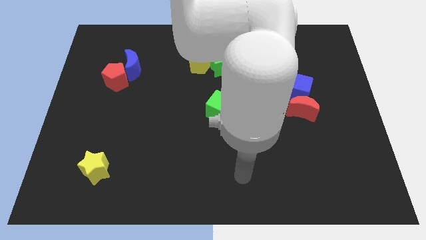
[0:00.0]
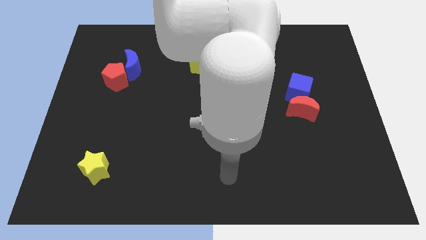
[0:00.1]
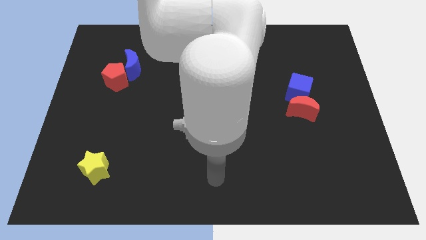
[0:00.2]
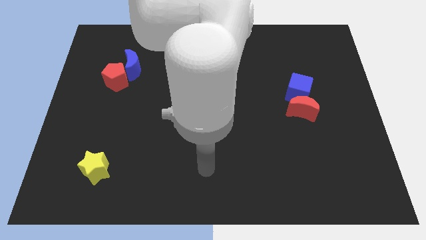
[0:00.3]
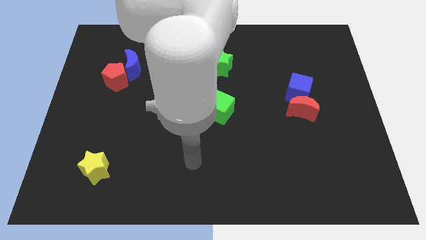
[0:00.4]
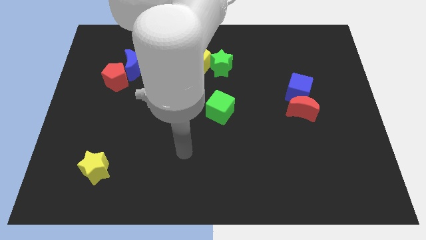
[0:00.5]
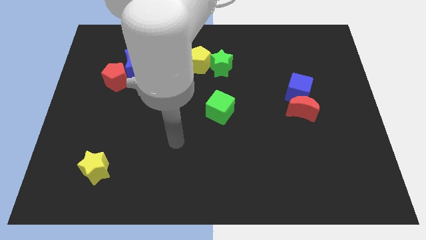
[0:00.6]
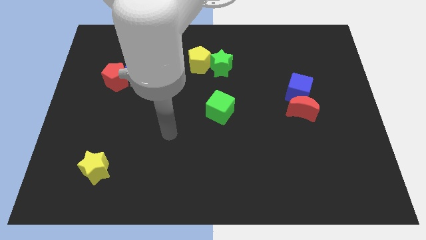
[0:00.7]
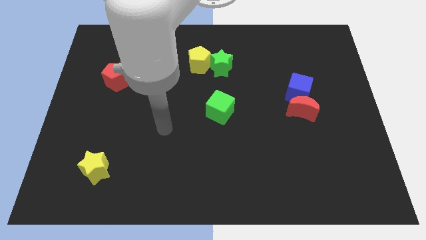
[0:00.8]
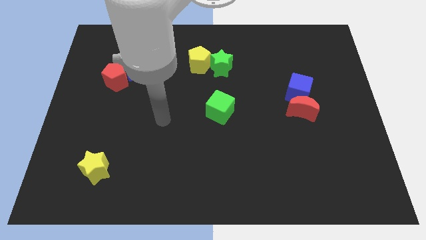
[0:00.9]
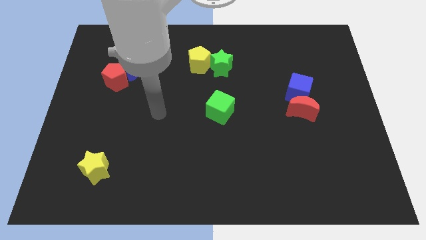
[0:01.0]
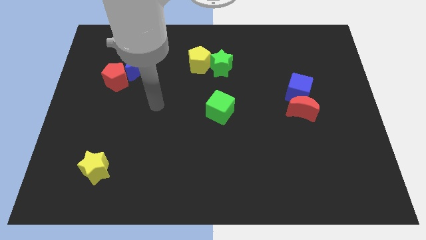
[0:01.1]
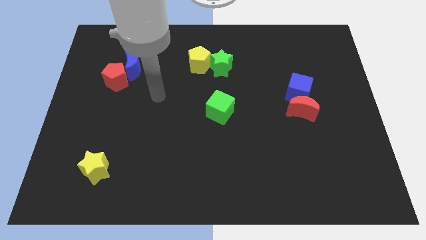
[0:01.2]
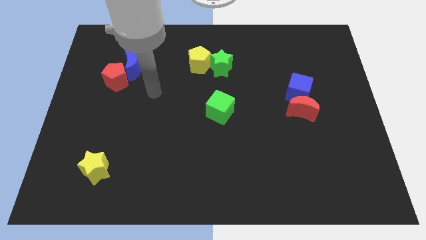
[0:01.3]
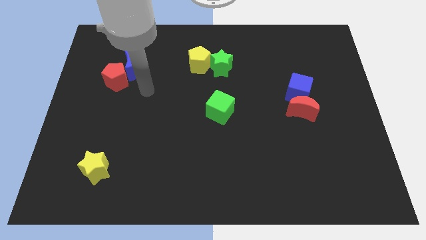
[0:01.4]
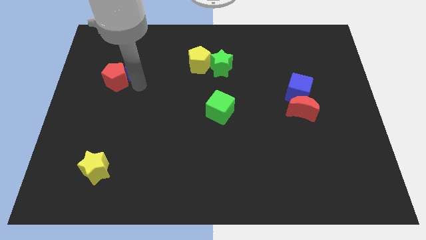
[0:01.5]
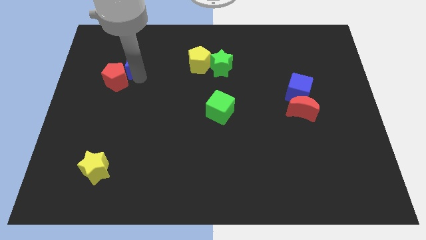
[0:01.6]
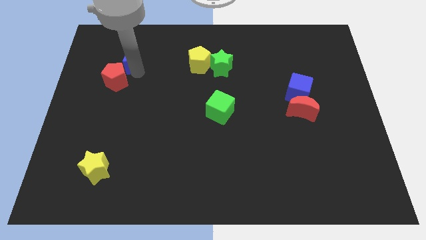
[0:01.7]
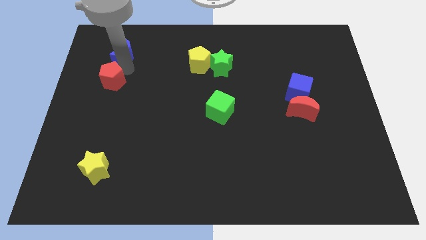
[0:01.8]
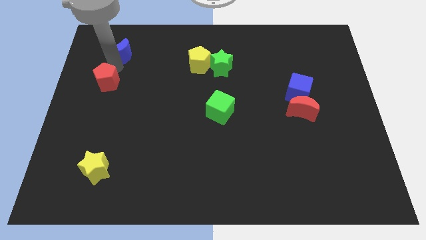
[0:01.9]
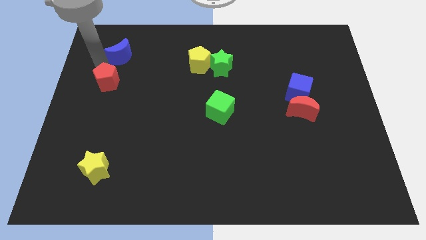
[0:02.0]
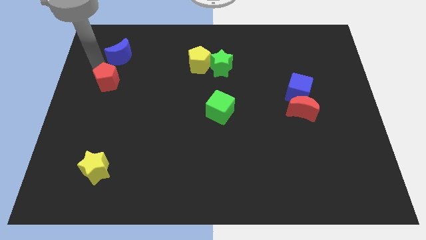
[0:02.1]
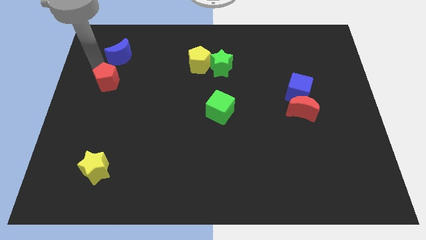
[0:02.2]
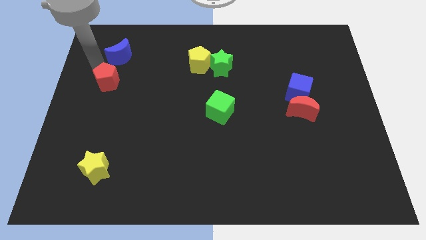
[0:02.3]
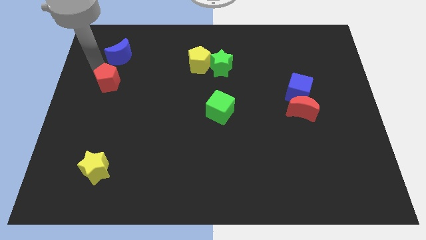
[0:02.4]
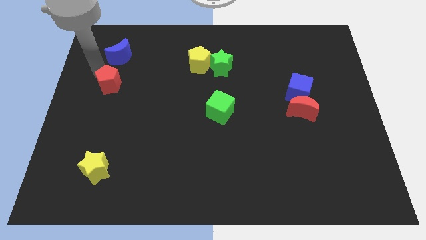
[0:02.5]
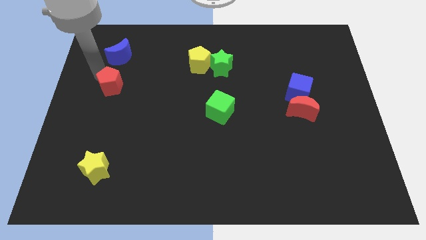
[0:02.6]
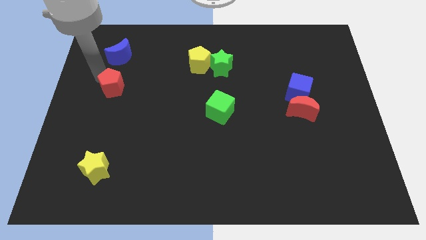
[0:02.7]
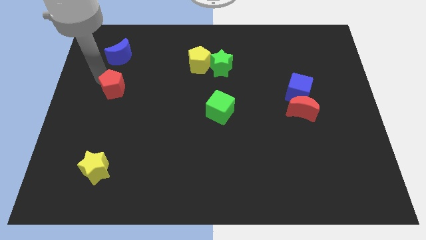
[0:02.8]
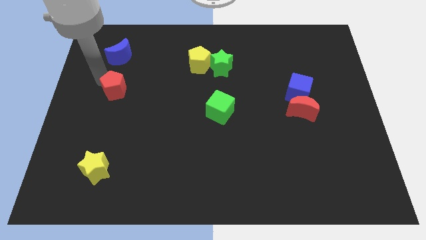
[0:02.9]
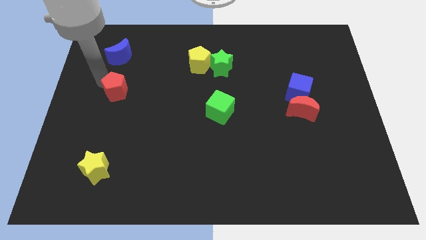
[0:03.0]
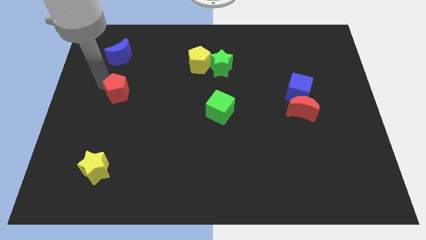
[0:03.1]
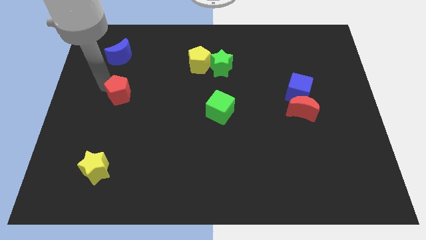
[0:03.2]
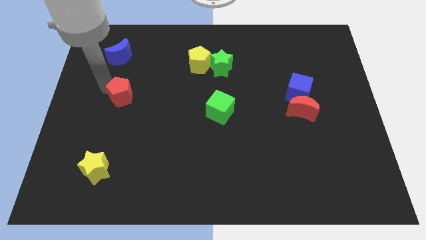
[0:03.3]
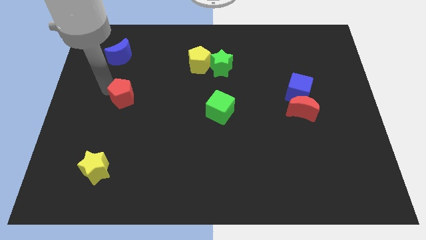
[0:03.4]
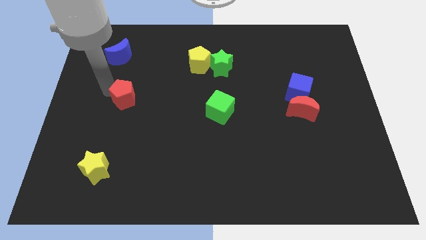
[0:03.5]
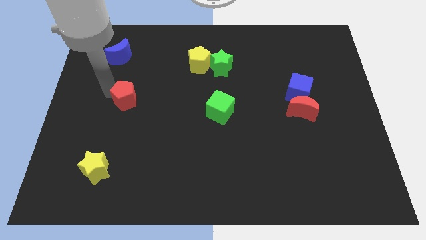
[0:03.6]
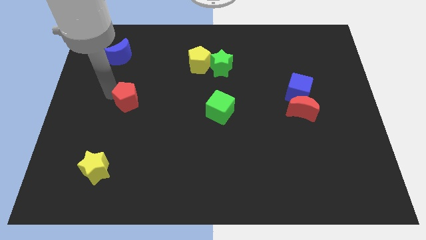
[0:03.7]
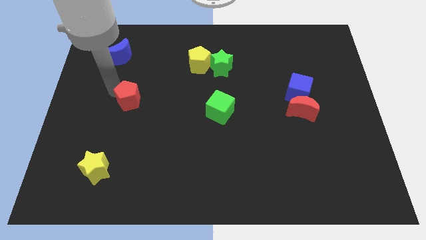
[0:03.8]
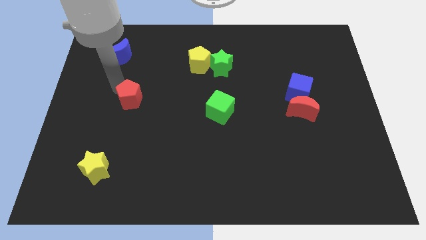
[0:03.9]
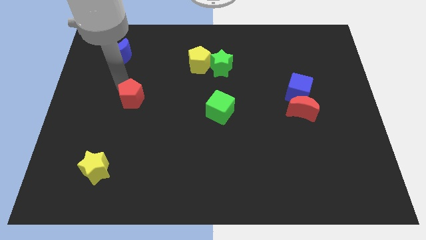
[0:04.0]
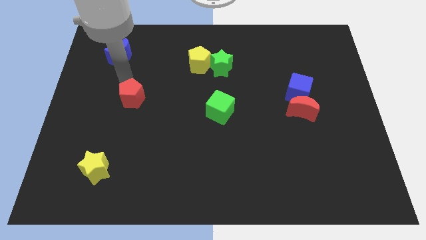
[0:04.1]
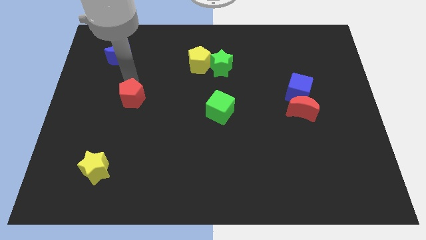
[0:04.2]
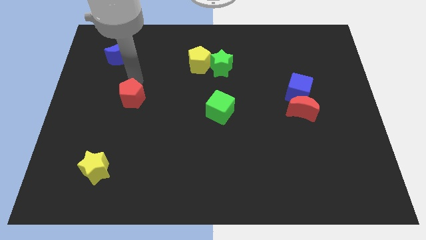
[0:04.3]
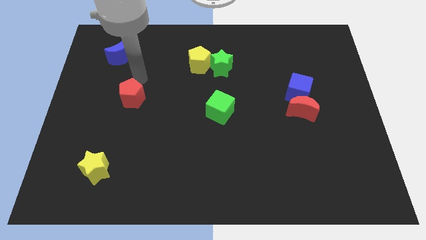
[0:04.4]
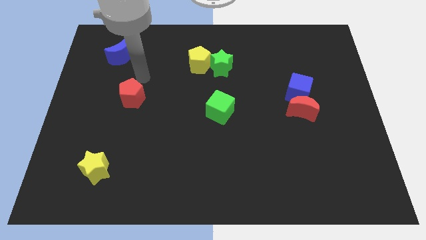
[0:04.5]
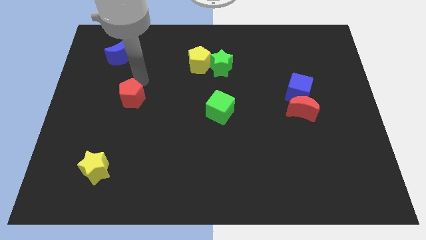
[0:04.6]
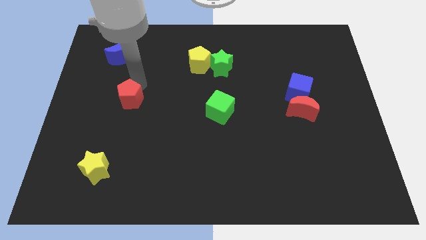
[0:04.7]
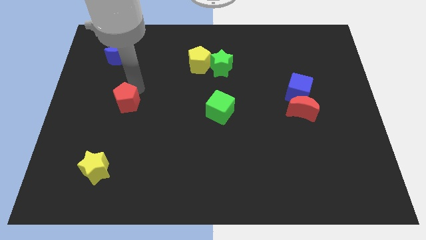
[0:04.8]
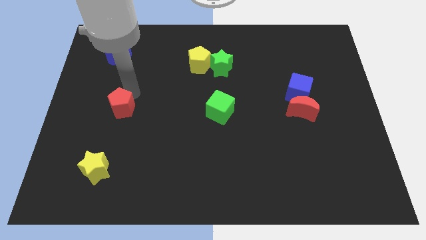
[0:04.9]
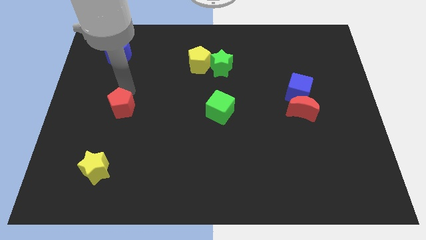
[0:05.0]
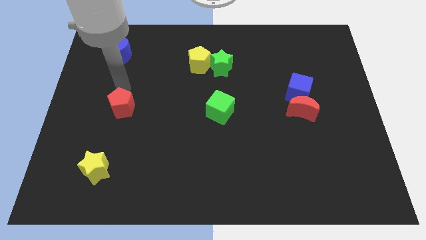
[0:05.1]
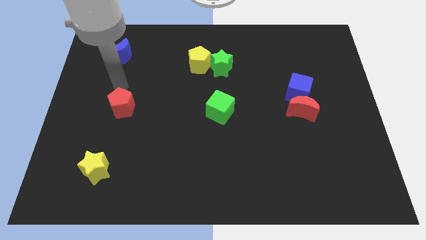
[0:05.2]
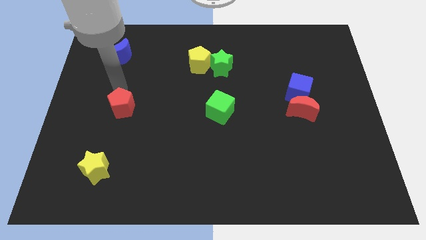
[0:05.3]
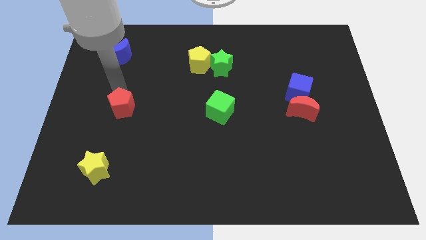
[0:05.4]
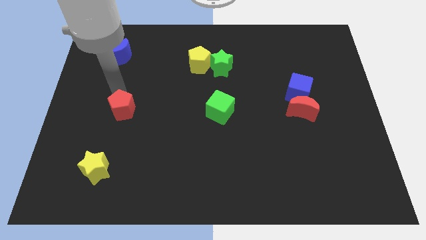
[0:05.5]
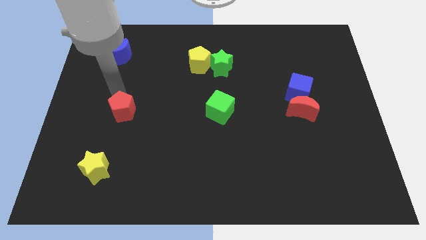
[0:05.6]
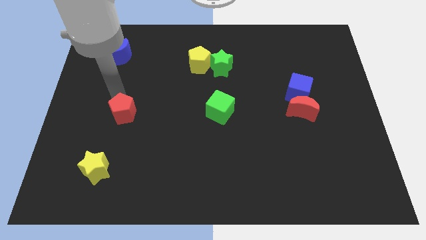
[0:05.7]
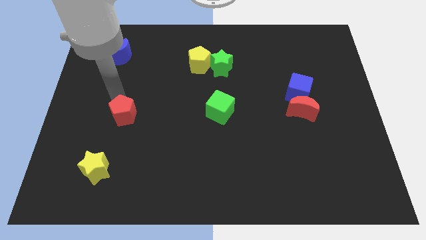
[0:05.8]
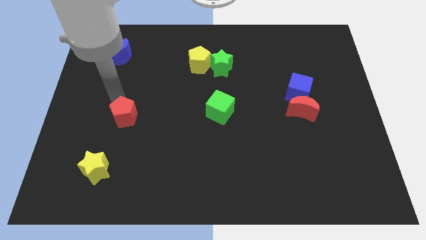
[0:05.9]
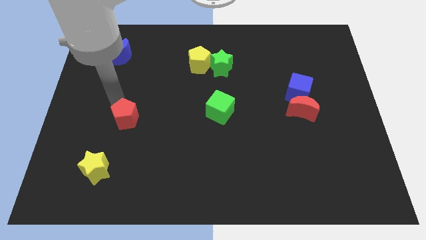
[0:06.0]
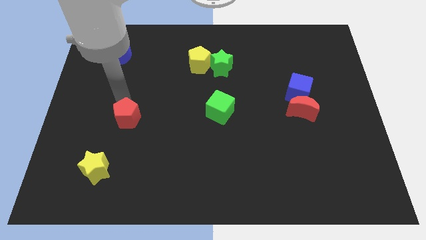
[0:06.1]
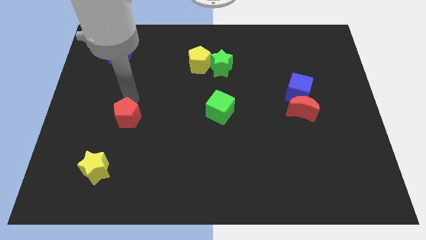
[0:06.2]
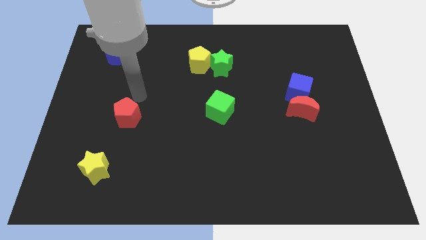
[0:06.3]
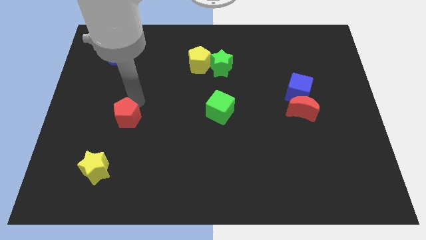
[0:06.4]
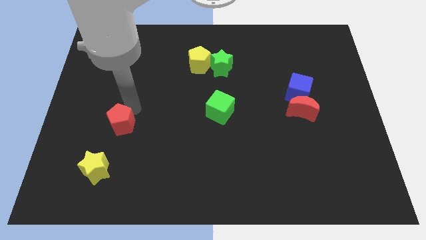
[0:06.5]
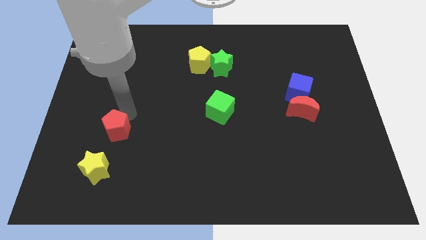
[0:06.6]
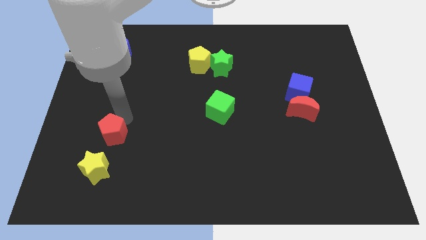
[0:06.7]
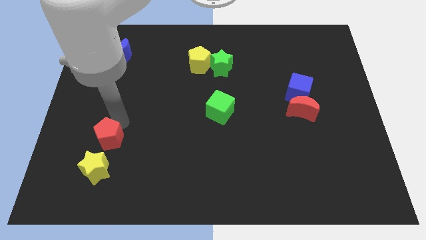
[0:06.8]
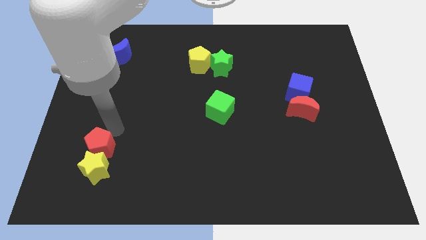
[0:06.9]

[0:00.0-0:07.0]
slide the red pentagon to the yellow star

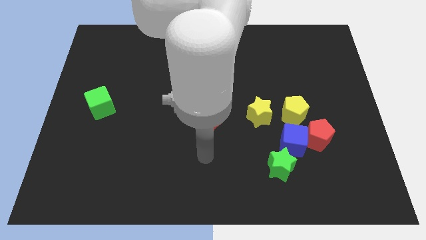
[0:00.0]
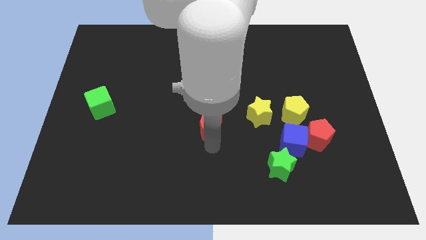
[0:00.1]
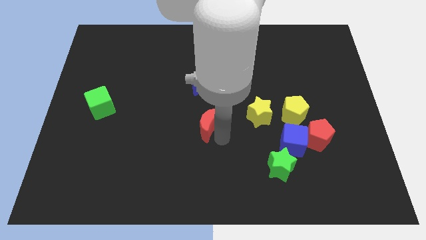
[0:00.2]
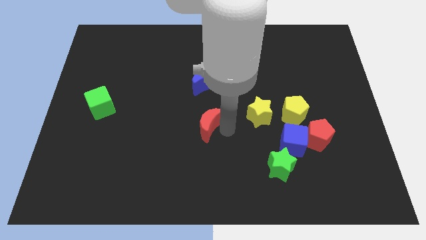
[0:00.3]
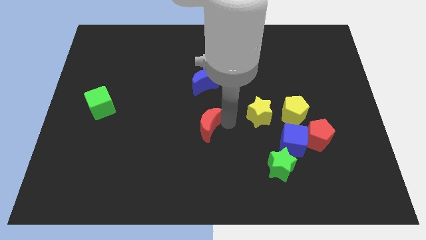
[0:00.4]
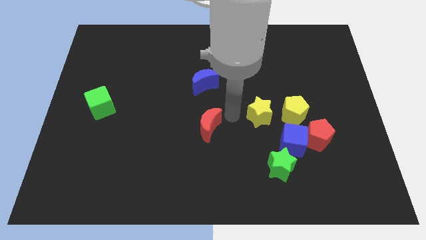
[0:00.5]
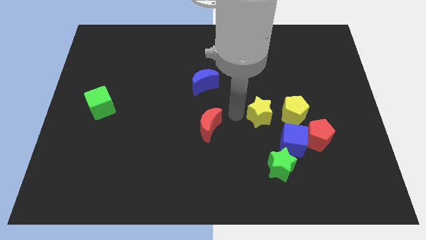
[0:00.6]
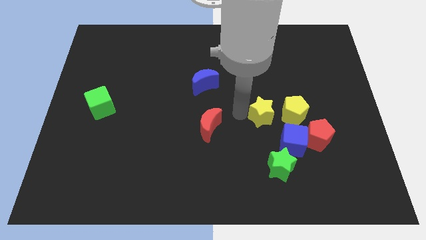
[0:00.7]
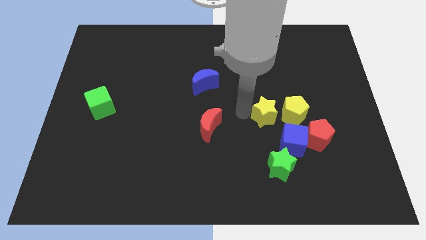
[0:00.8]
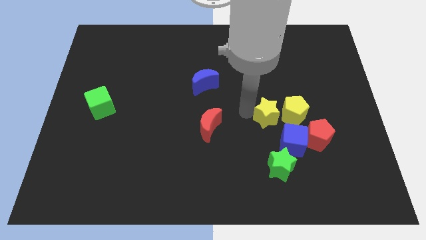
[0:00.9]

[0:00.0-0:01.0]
move the yellow star close to the yellow pentagon
